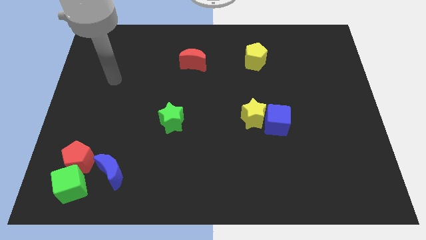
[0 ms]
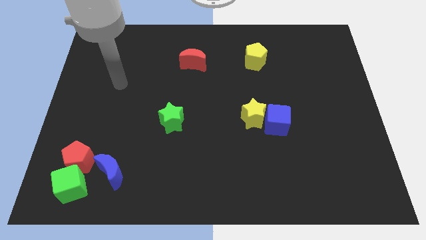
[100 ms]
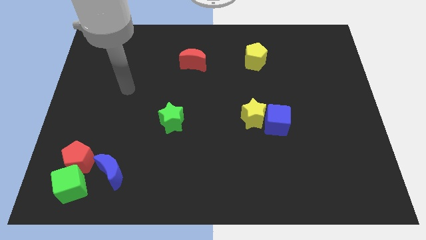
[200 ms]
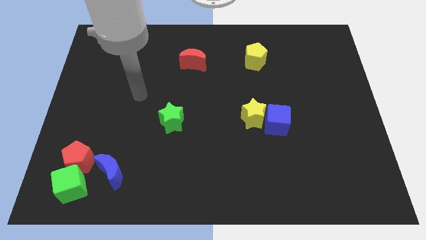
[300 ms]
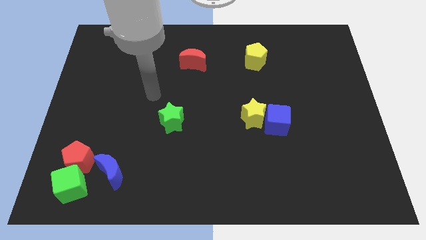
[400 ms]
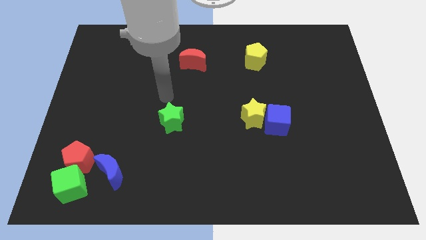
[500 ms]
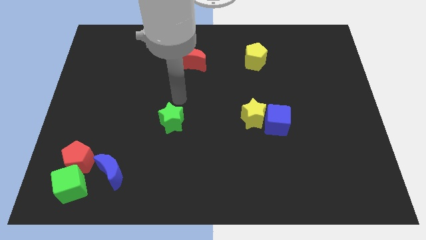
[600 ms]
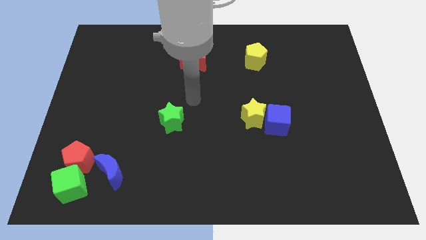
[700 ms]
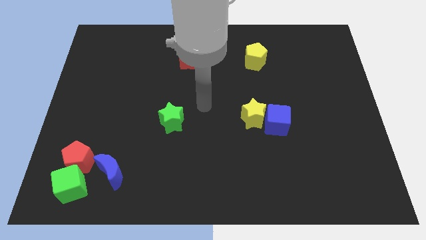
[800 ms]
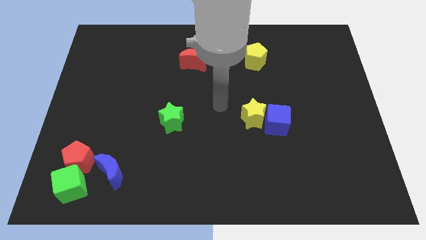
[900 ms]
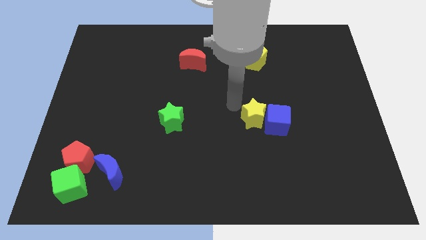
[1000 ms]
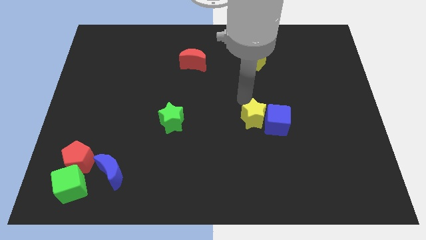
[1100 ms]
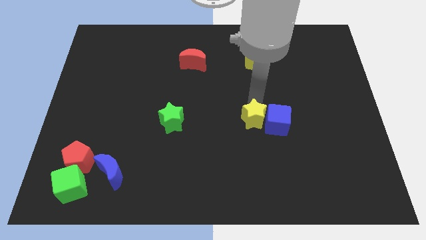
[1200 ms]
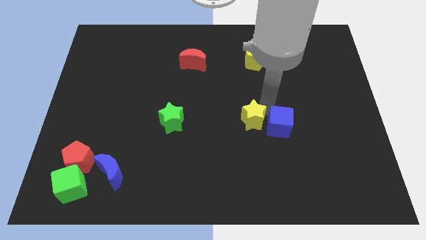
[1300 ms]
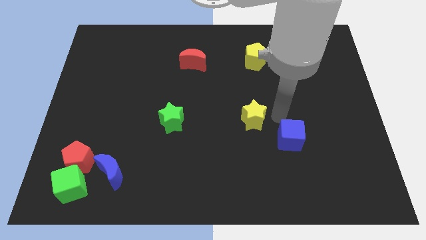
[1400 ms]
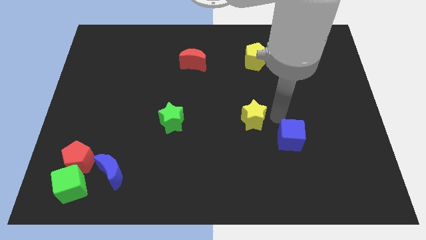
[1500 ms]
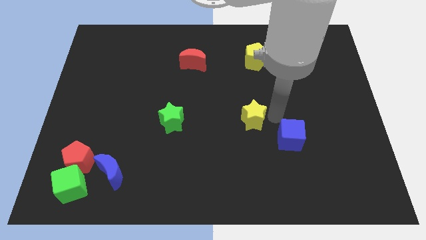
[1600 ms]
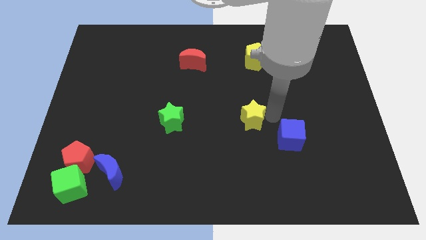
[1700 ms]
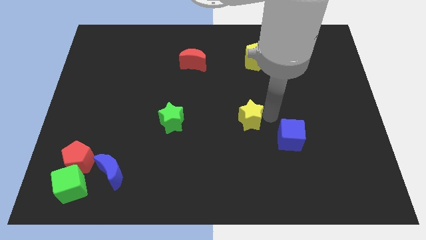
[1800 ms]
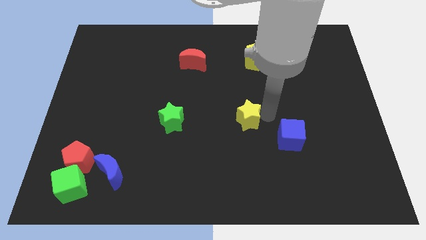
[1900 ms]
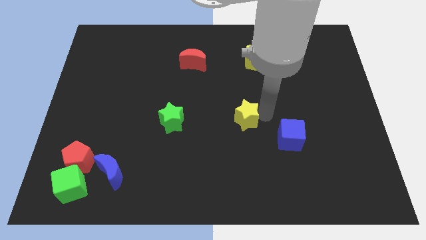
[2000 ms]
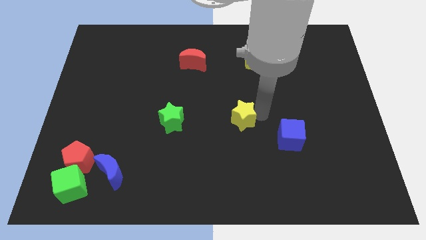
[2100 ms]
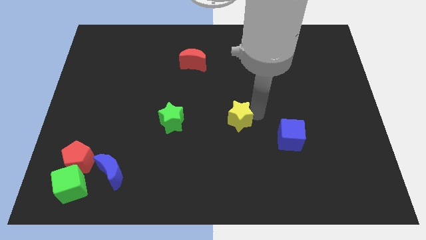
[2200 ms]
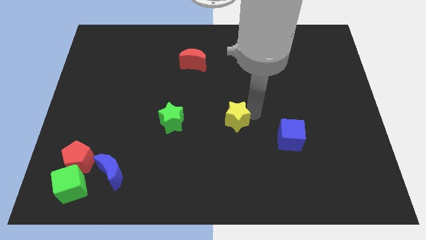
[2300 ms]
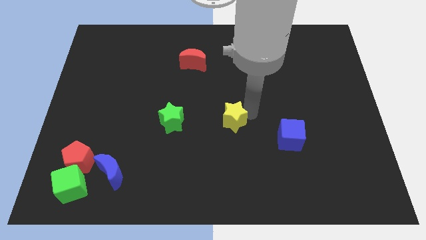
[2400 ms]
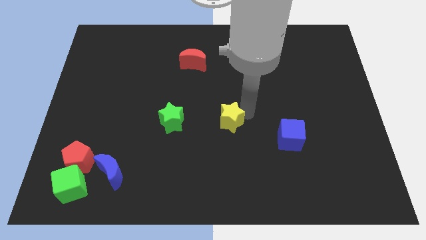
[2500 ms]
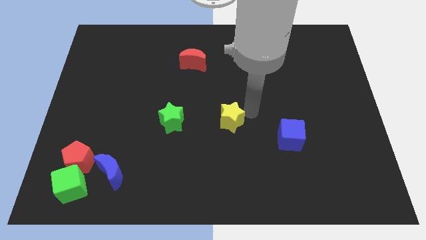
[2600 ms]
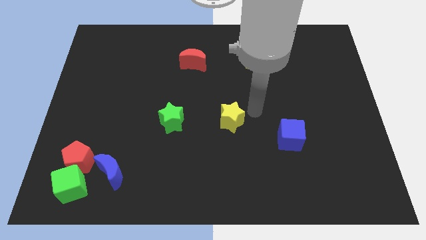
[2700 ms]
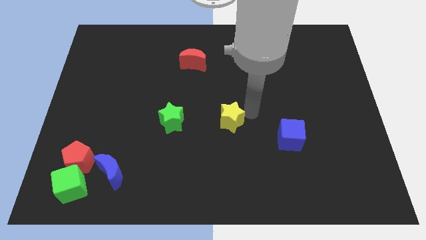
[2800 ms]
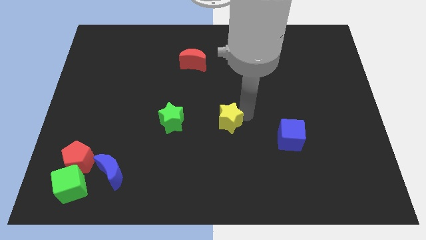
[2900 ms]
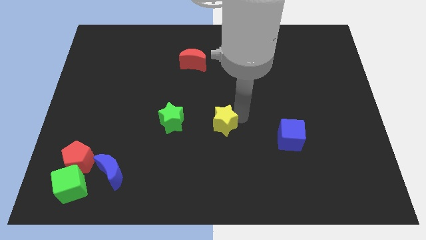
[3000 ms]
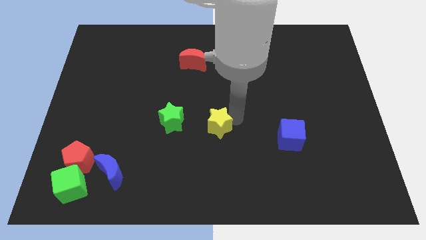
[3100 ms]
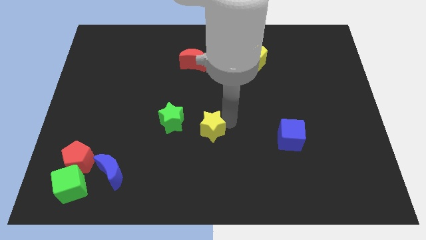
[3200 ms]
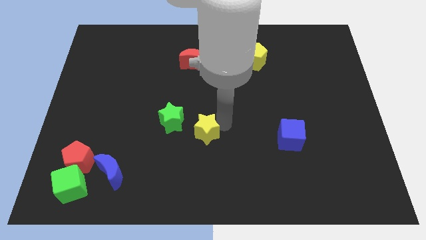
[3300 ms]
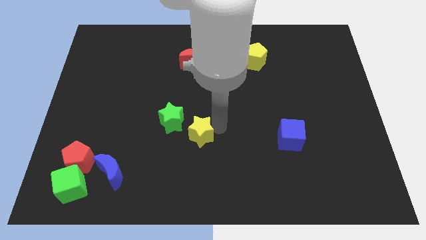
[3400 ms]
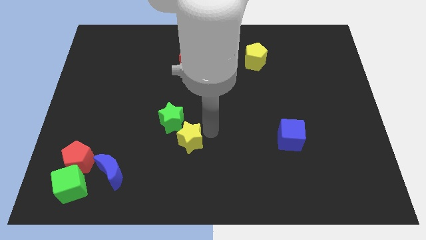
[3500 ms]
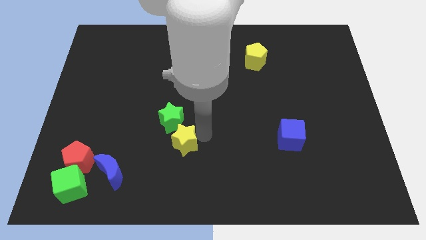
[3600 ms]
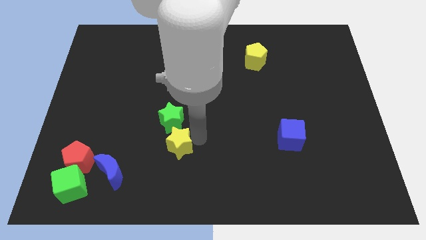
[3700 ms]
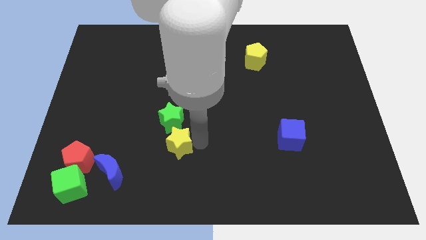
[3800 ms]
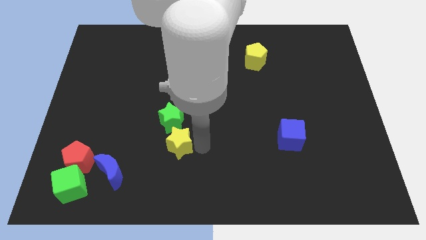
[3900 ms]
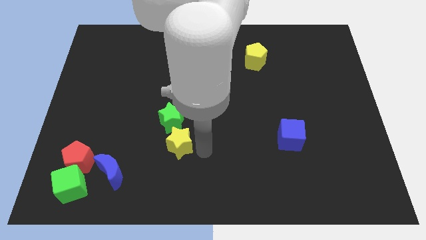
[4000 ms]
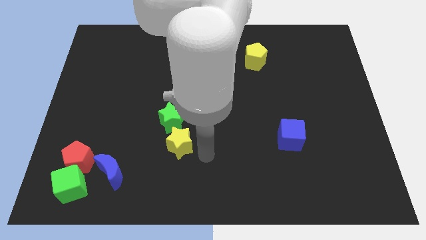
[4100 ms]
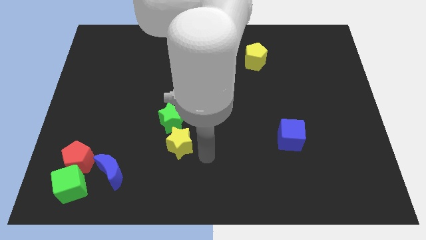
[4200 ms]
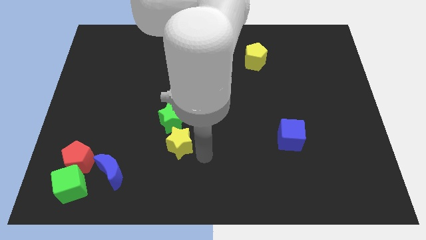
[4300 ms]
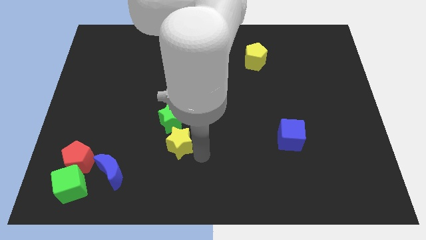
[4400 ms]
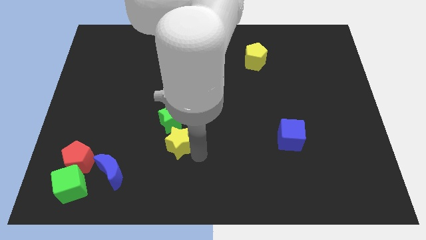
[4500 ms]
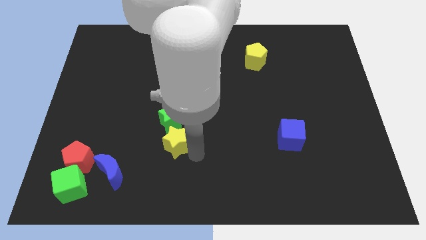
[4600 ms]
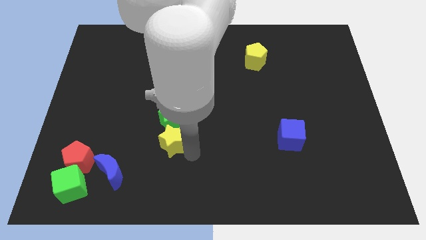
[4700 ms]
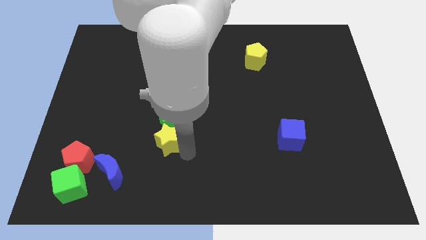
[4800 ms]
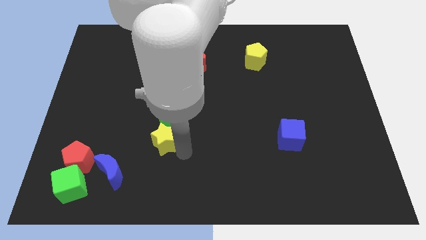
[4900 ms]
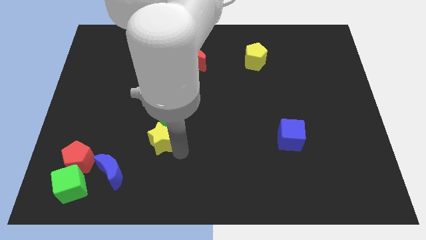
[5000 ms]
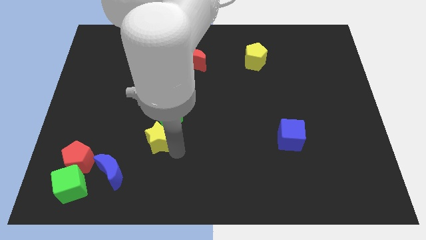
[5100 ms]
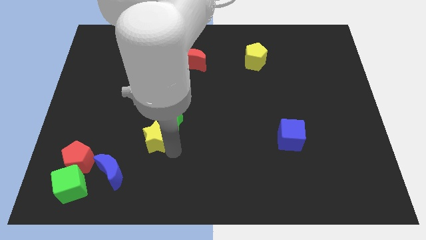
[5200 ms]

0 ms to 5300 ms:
slide the yellow star to the left

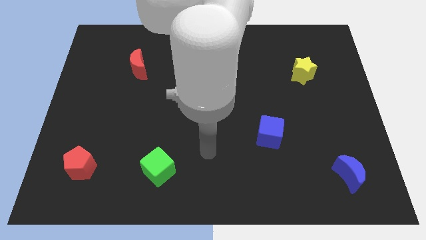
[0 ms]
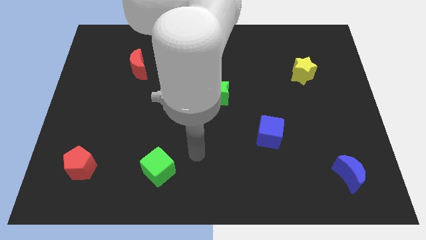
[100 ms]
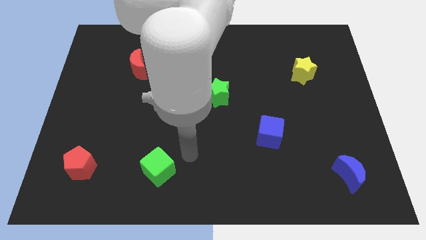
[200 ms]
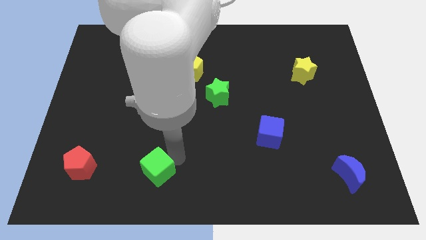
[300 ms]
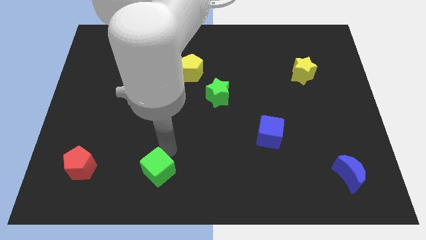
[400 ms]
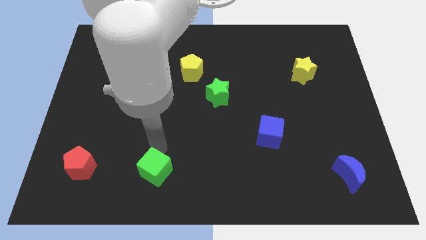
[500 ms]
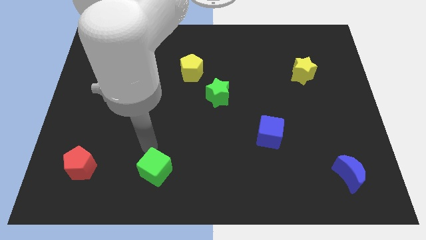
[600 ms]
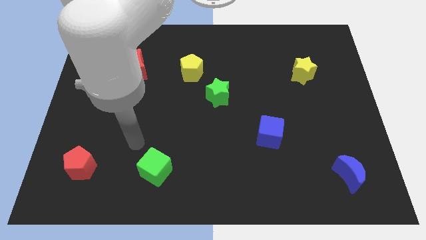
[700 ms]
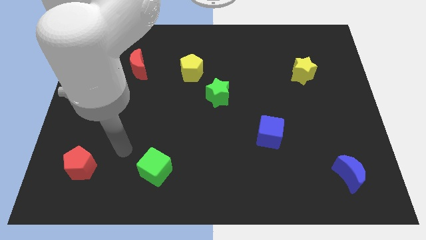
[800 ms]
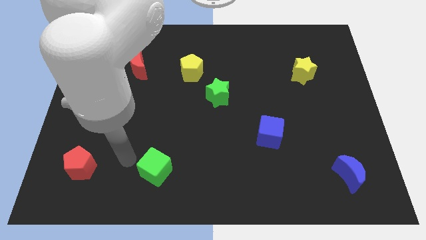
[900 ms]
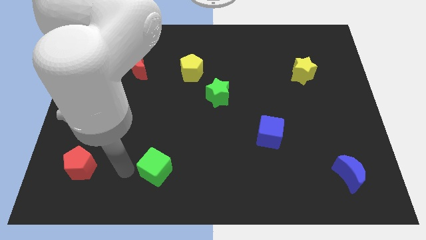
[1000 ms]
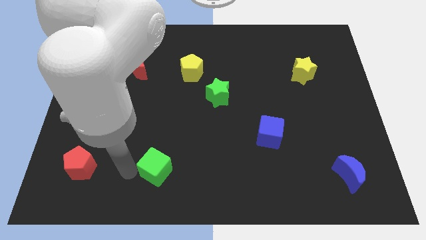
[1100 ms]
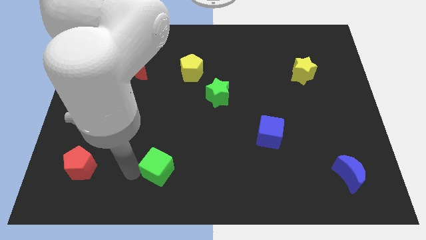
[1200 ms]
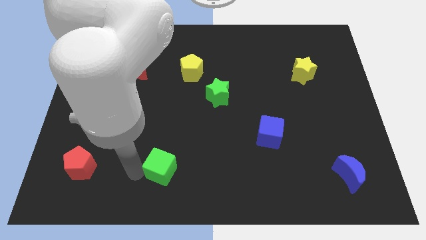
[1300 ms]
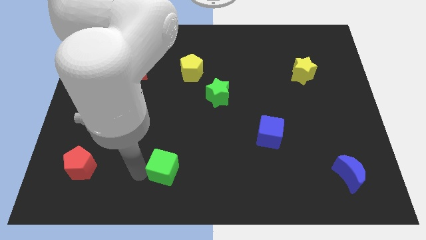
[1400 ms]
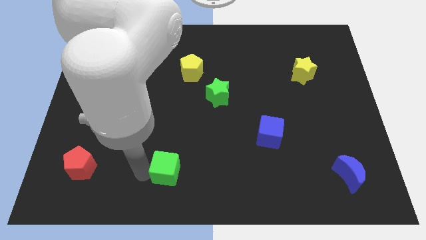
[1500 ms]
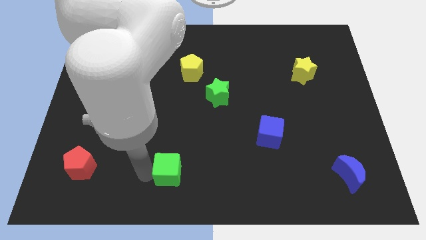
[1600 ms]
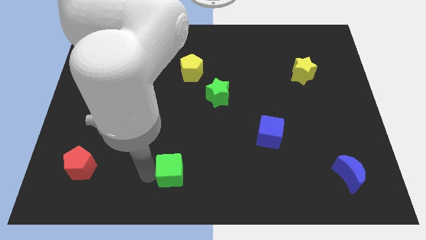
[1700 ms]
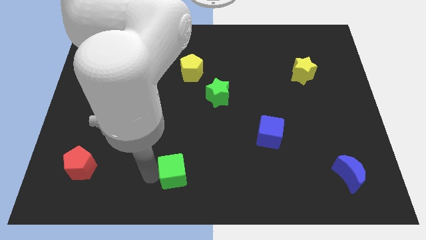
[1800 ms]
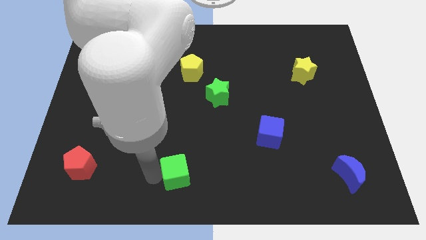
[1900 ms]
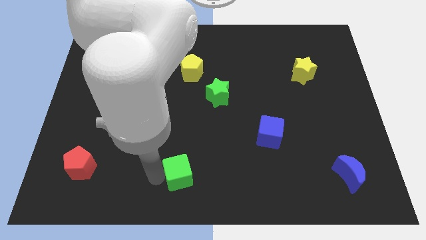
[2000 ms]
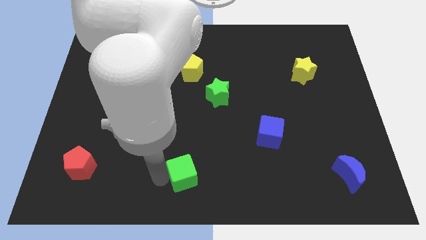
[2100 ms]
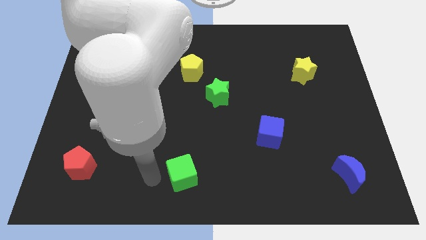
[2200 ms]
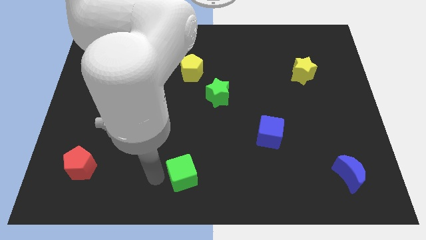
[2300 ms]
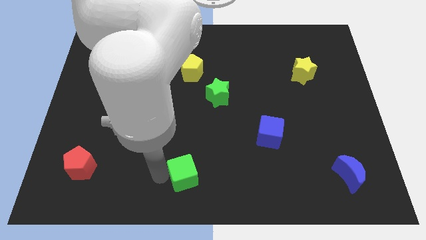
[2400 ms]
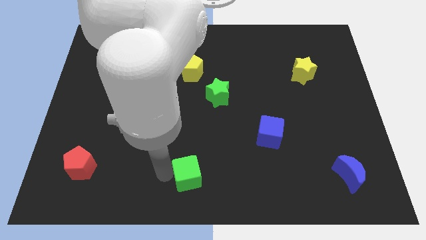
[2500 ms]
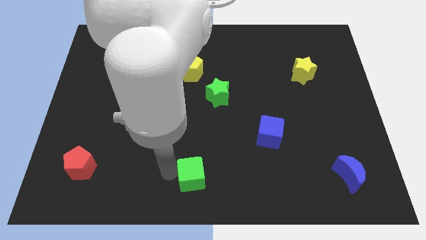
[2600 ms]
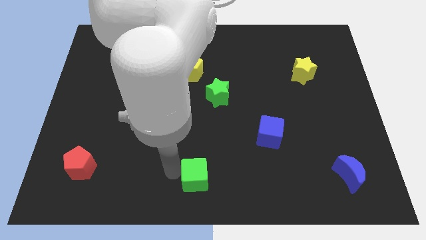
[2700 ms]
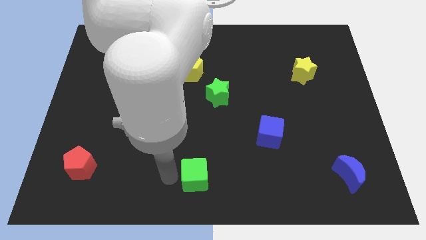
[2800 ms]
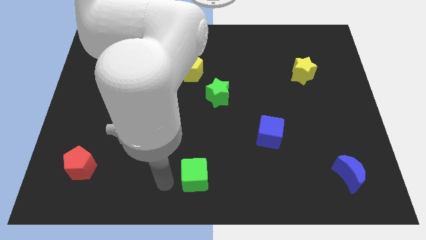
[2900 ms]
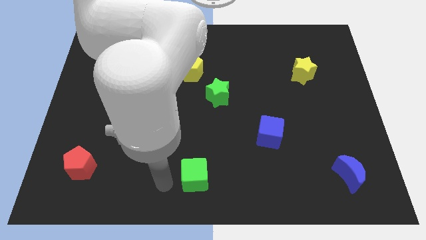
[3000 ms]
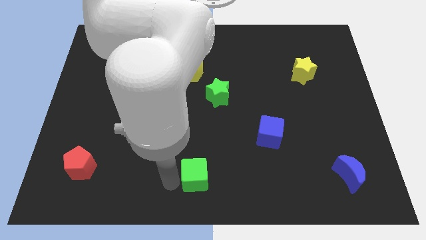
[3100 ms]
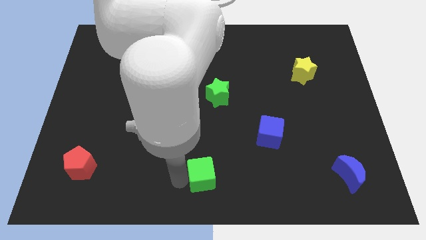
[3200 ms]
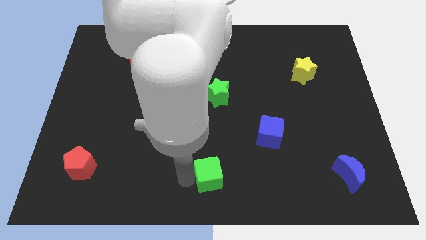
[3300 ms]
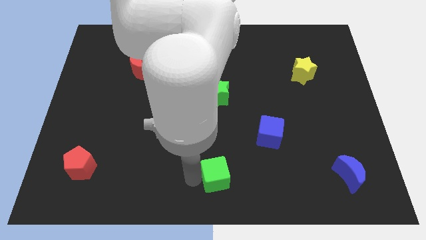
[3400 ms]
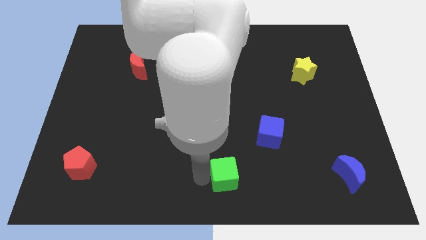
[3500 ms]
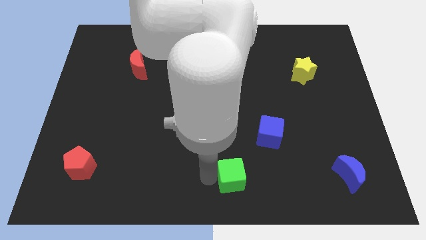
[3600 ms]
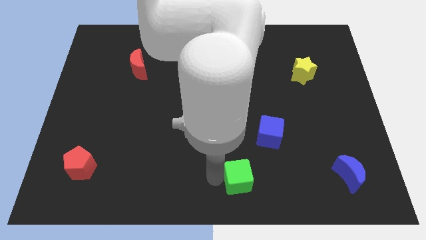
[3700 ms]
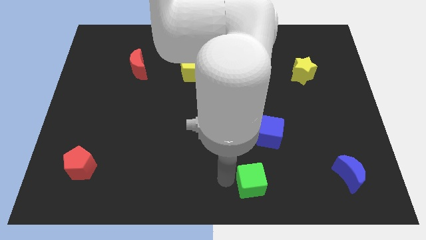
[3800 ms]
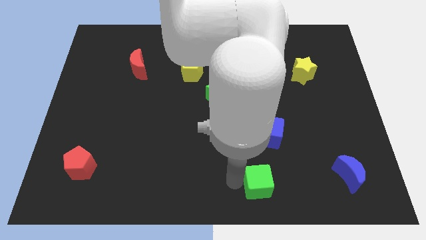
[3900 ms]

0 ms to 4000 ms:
push the green cube right
